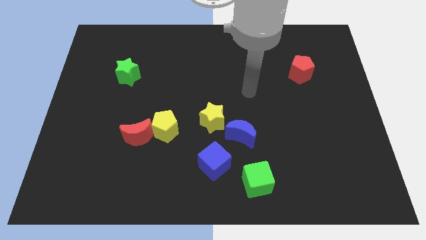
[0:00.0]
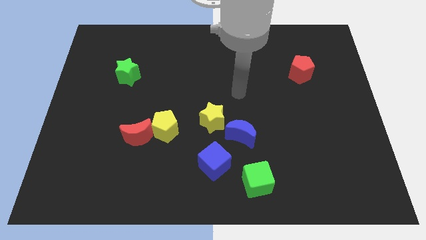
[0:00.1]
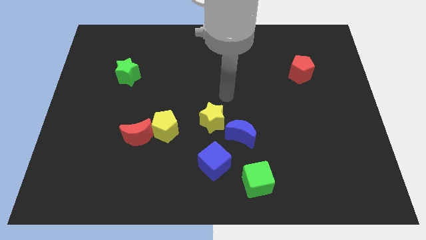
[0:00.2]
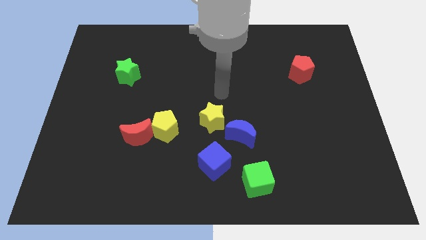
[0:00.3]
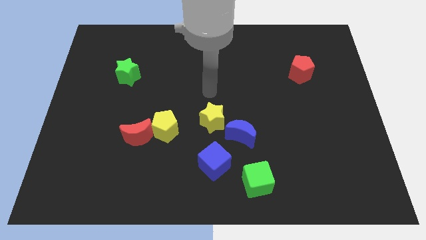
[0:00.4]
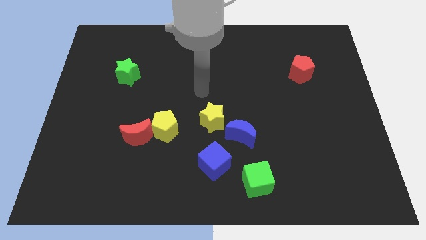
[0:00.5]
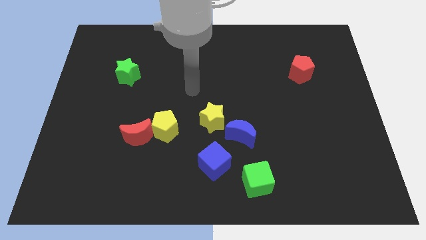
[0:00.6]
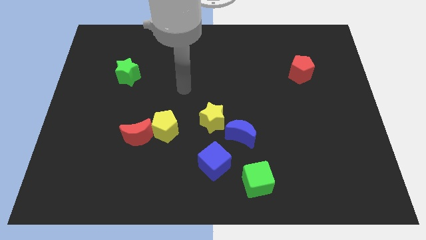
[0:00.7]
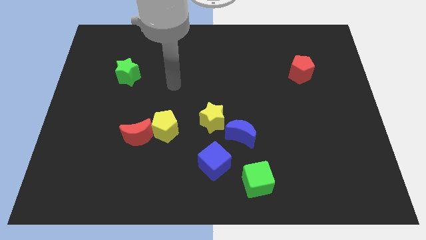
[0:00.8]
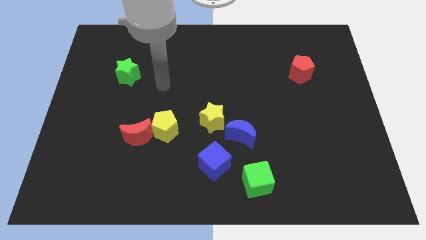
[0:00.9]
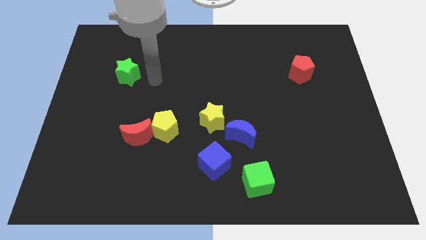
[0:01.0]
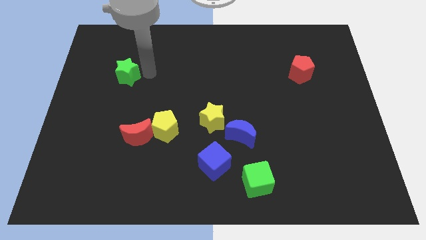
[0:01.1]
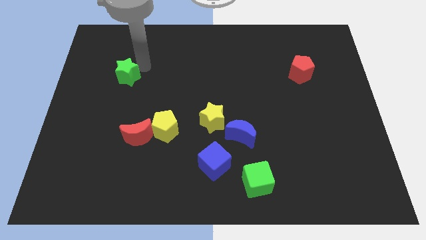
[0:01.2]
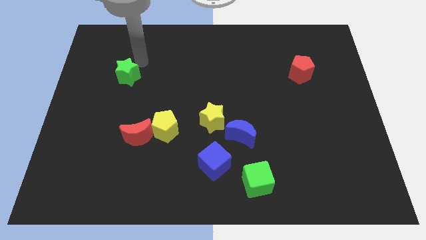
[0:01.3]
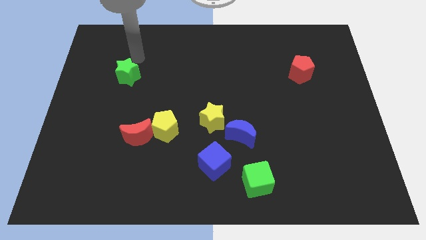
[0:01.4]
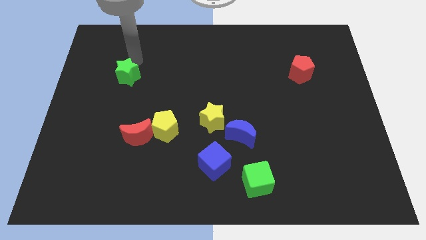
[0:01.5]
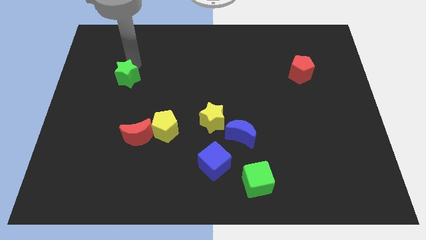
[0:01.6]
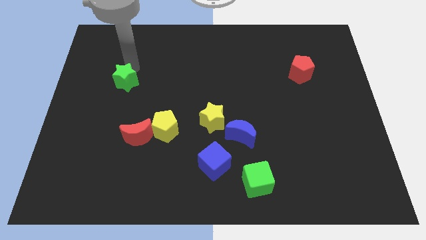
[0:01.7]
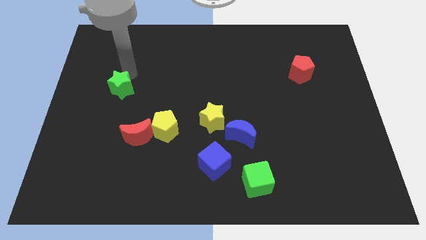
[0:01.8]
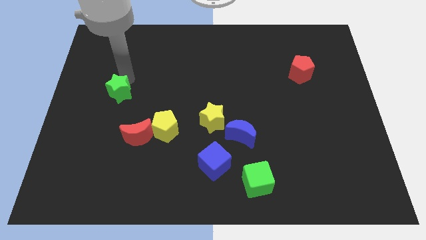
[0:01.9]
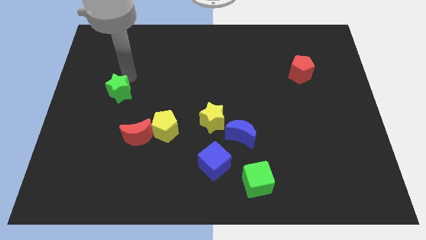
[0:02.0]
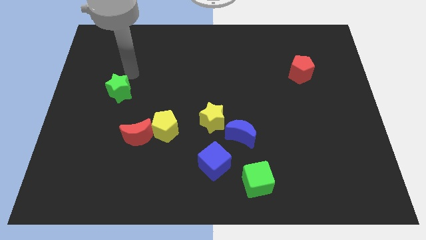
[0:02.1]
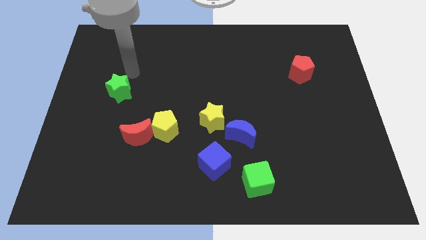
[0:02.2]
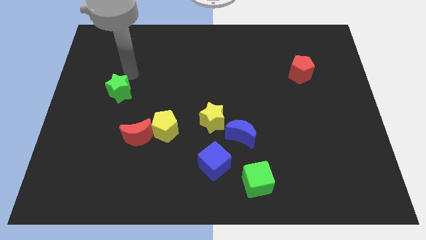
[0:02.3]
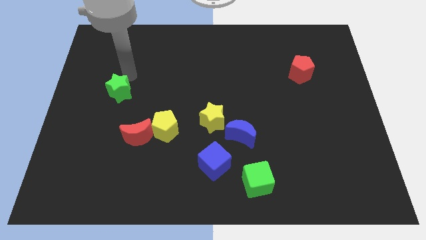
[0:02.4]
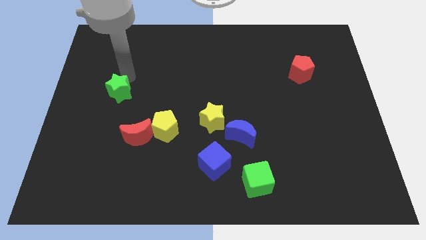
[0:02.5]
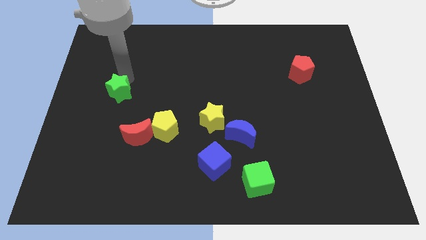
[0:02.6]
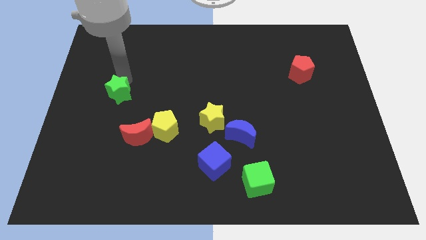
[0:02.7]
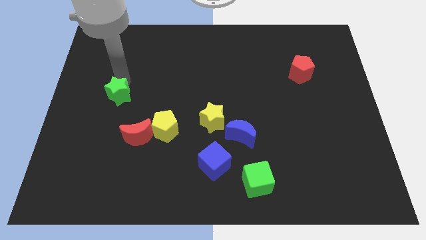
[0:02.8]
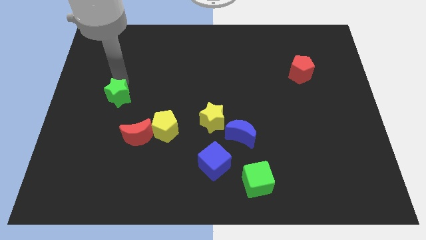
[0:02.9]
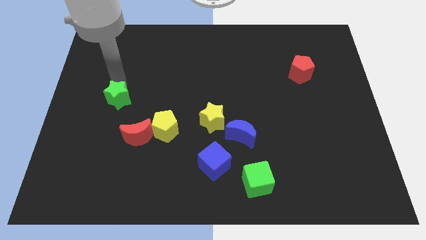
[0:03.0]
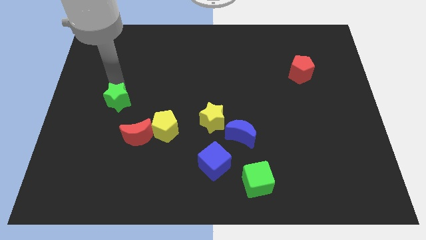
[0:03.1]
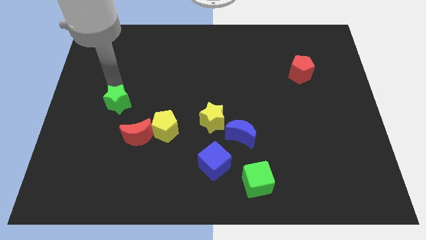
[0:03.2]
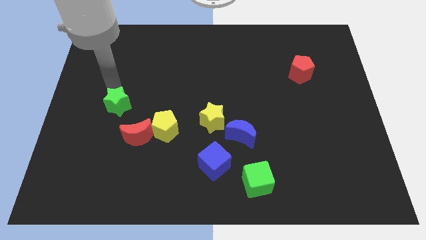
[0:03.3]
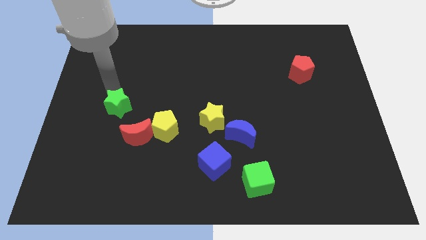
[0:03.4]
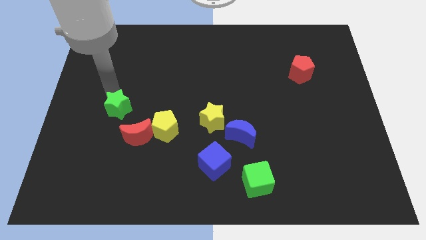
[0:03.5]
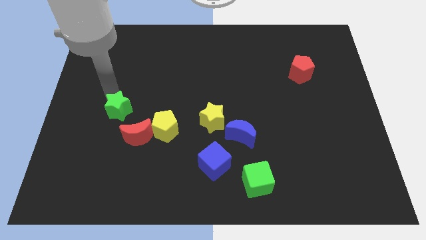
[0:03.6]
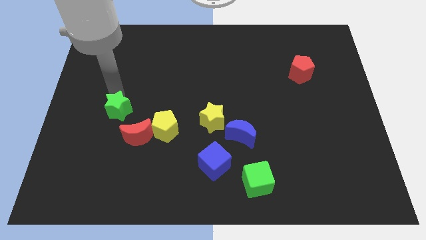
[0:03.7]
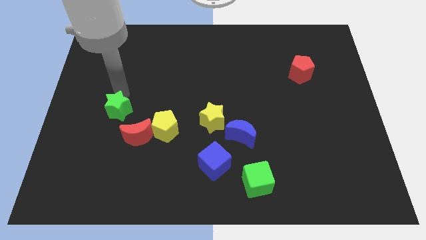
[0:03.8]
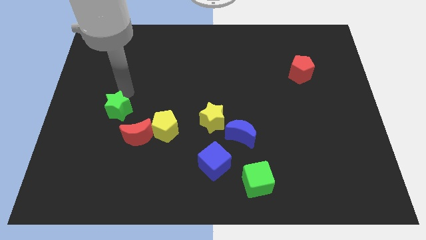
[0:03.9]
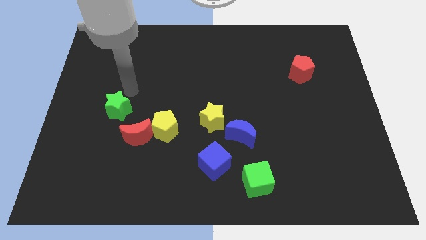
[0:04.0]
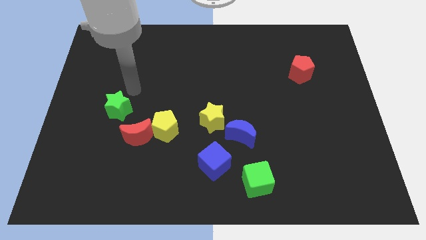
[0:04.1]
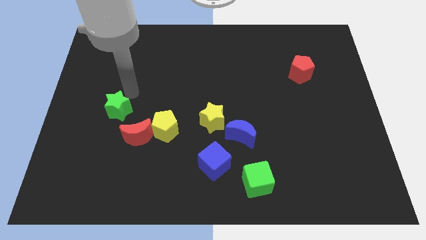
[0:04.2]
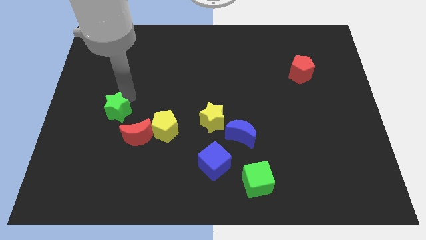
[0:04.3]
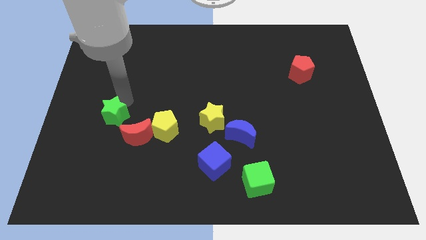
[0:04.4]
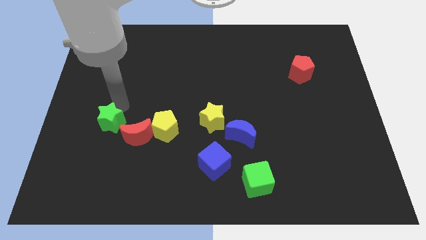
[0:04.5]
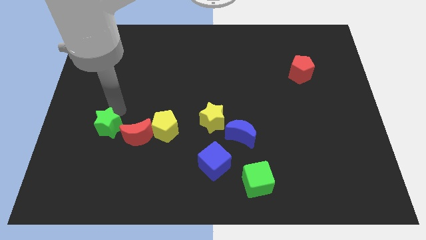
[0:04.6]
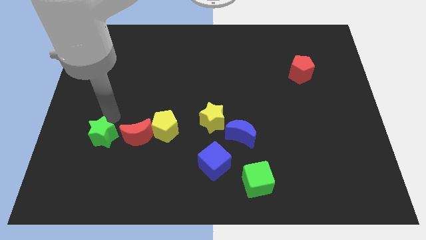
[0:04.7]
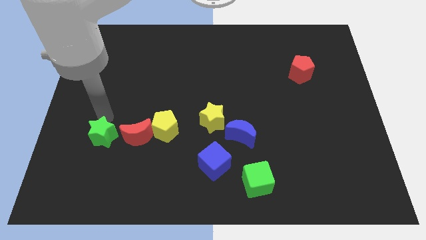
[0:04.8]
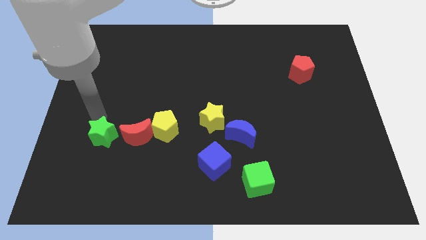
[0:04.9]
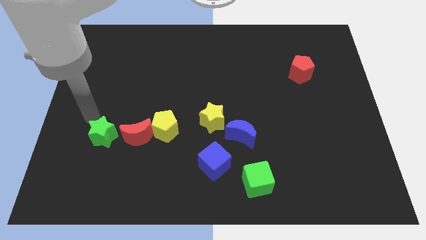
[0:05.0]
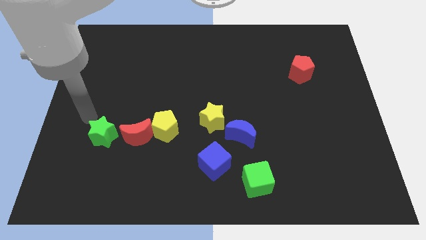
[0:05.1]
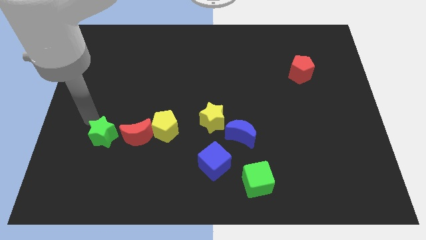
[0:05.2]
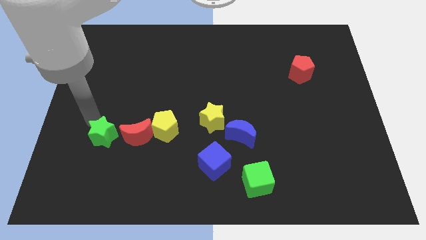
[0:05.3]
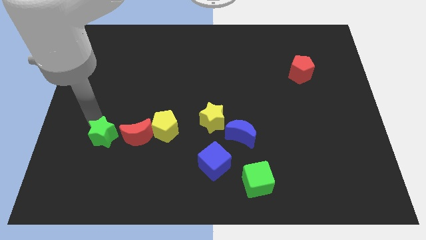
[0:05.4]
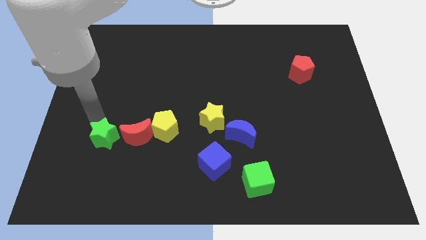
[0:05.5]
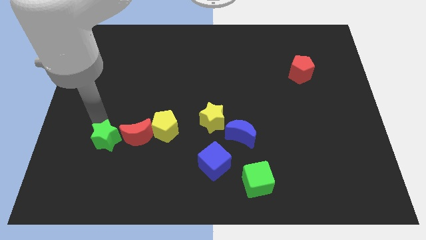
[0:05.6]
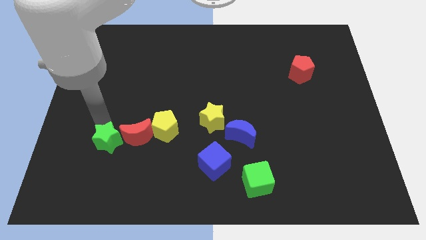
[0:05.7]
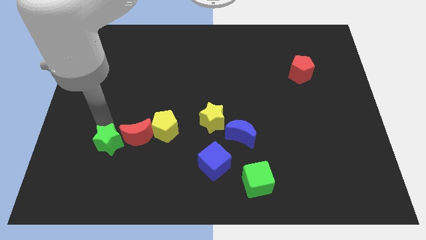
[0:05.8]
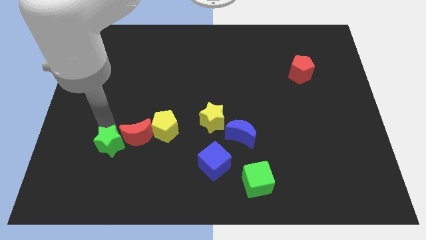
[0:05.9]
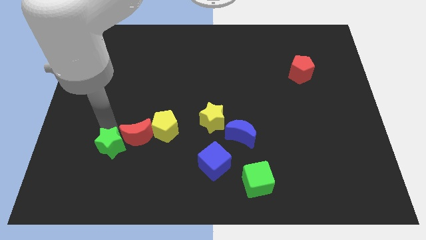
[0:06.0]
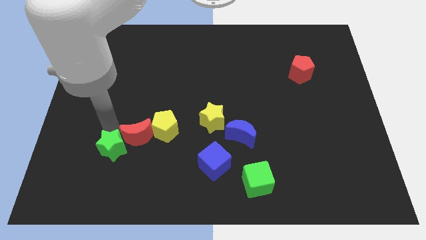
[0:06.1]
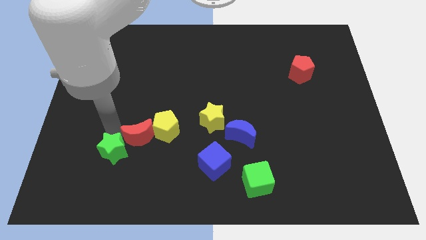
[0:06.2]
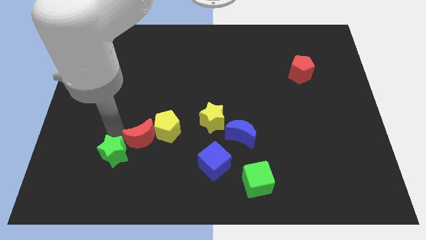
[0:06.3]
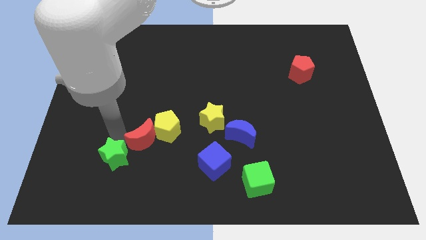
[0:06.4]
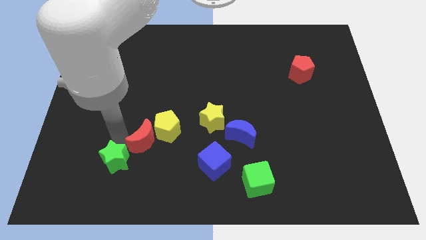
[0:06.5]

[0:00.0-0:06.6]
push the green star below the red moon

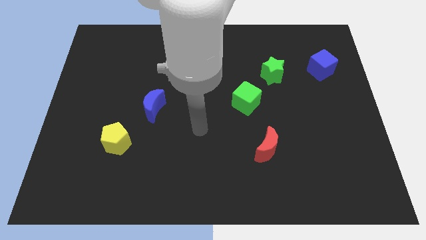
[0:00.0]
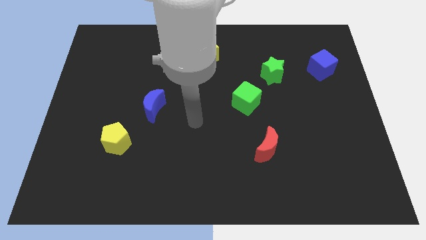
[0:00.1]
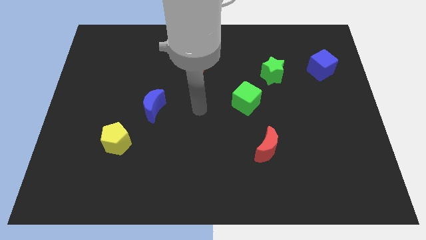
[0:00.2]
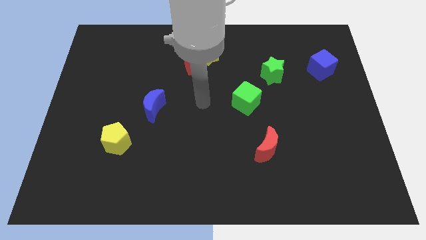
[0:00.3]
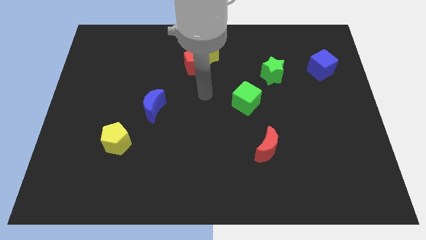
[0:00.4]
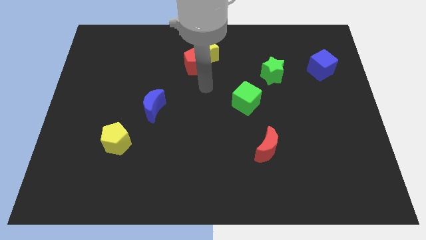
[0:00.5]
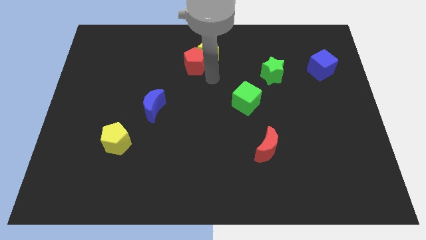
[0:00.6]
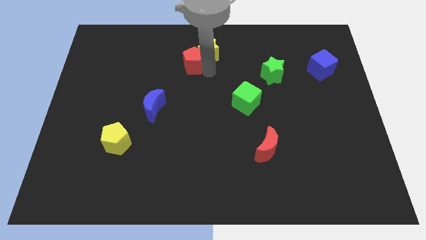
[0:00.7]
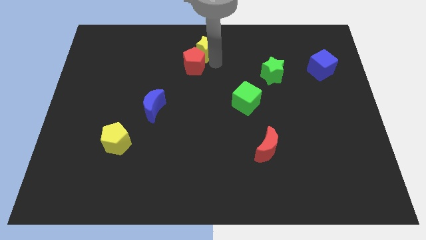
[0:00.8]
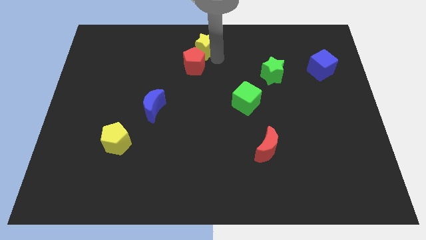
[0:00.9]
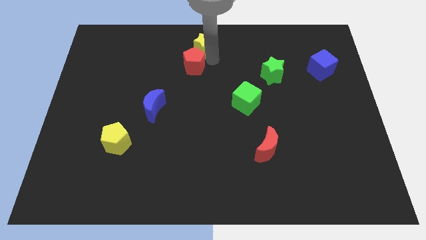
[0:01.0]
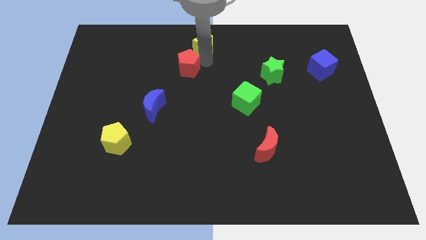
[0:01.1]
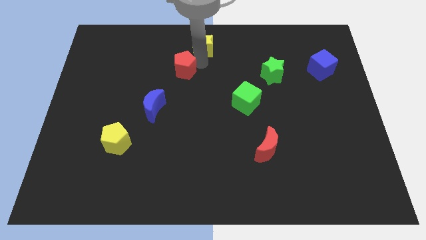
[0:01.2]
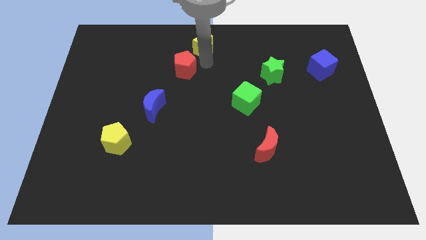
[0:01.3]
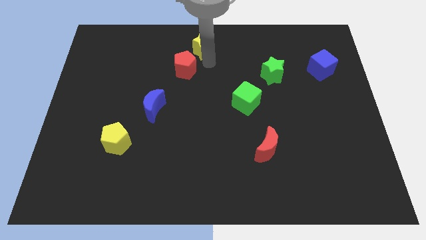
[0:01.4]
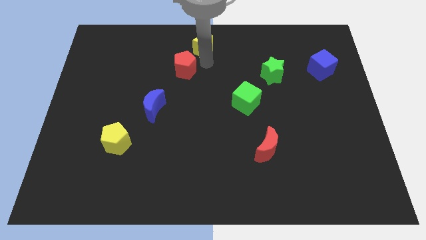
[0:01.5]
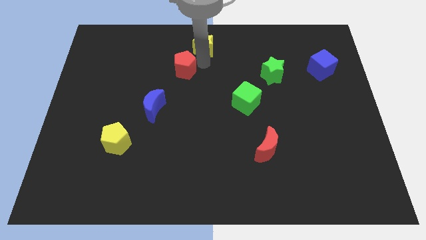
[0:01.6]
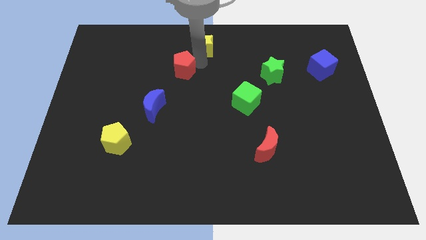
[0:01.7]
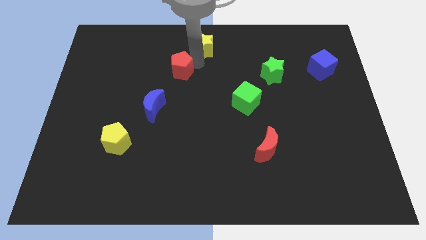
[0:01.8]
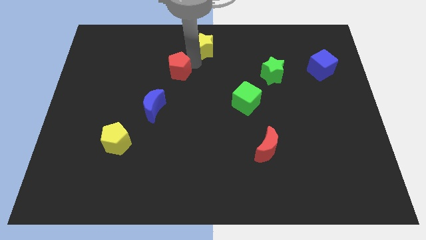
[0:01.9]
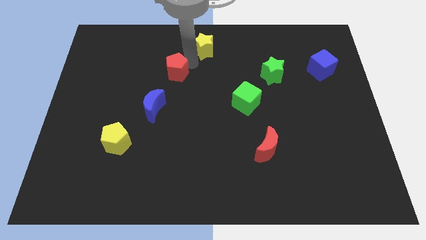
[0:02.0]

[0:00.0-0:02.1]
slide the red pentagon to the top of the blue moon

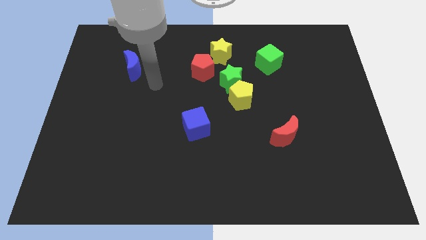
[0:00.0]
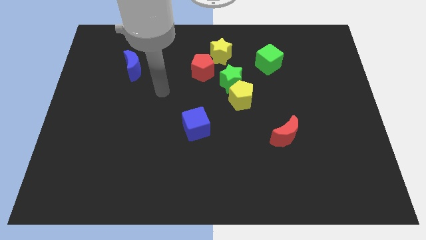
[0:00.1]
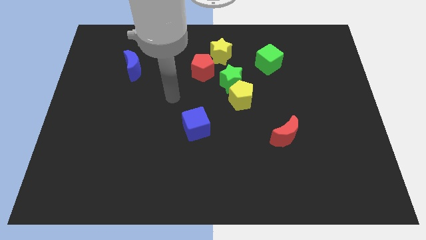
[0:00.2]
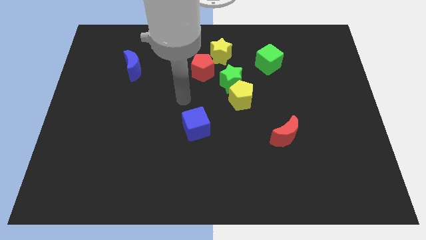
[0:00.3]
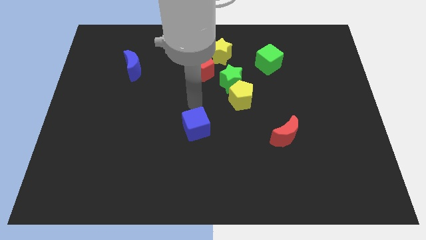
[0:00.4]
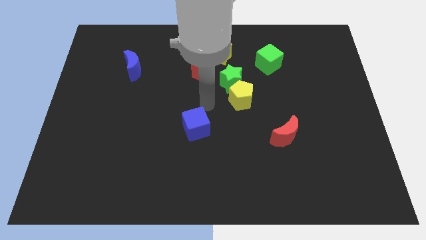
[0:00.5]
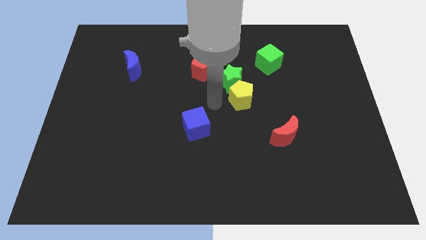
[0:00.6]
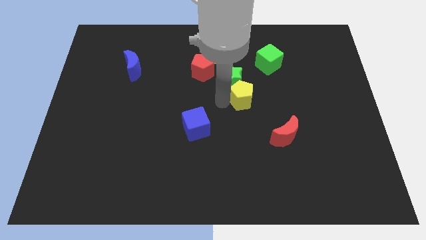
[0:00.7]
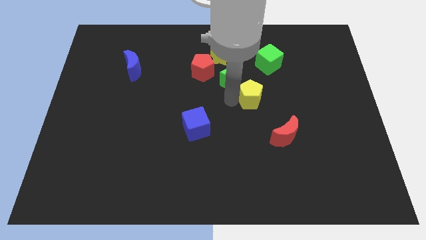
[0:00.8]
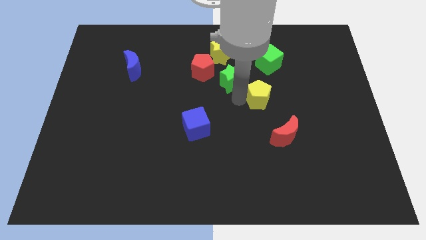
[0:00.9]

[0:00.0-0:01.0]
slide the yellow pentagon below the green cube
